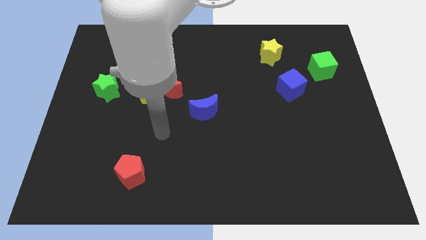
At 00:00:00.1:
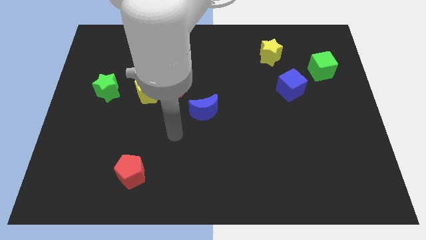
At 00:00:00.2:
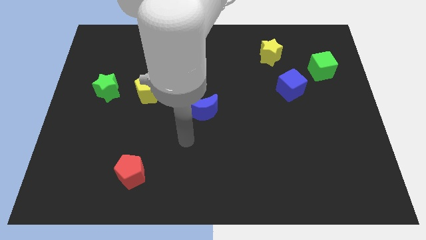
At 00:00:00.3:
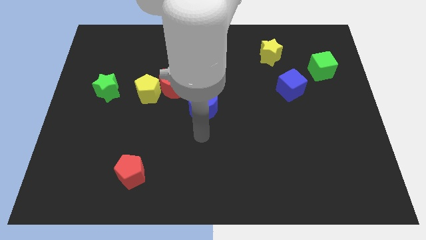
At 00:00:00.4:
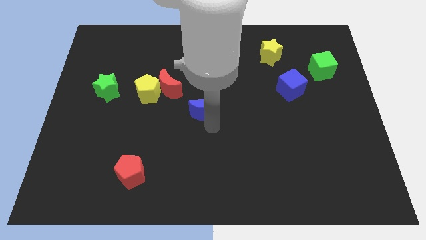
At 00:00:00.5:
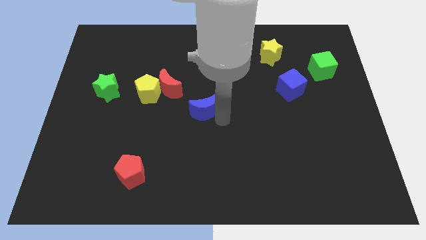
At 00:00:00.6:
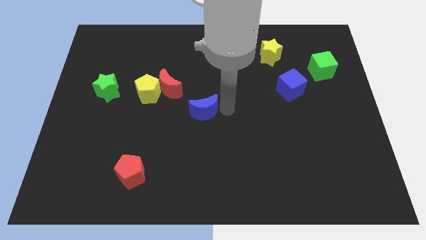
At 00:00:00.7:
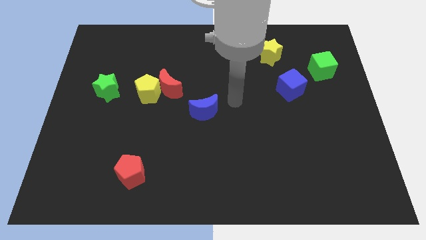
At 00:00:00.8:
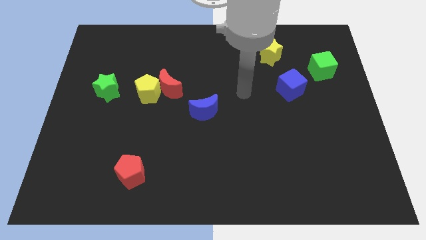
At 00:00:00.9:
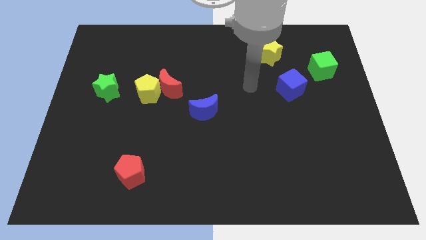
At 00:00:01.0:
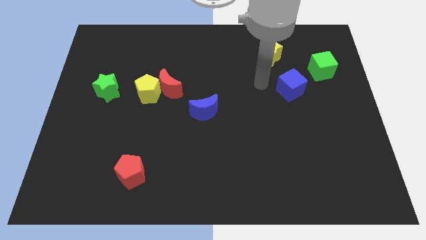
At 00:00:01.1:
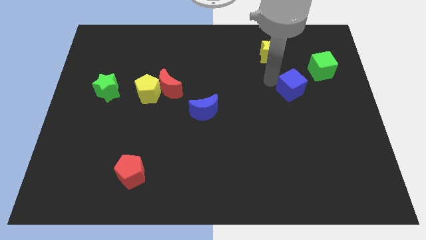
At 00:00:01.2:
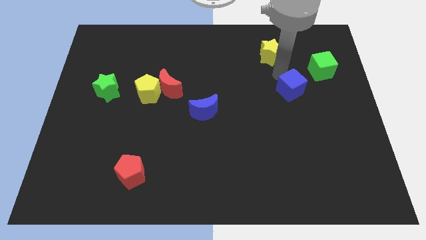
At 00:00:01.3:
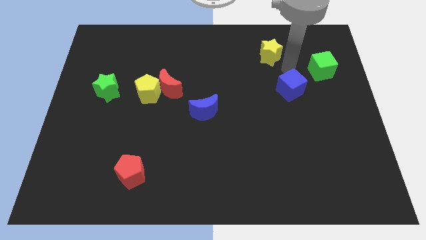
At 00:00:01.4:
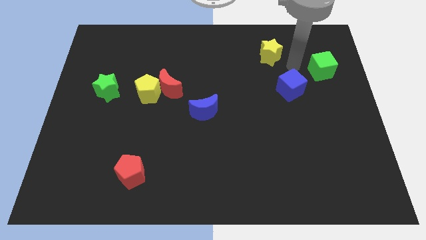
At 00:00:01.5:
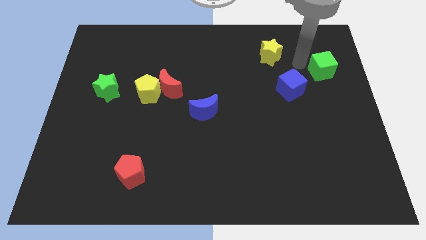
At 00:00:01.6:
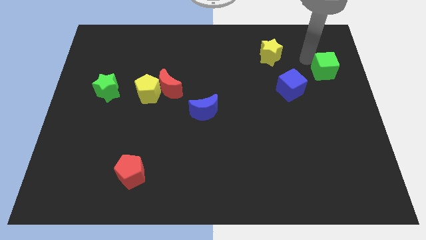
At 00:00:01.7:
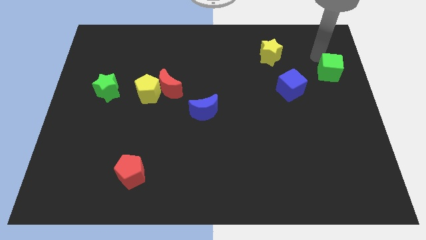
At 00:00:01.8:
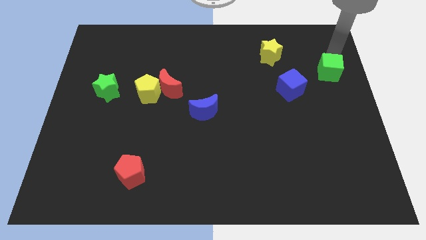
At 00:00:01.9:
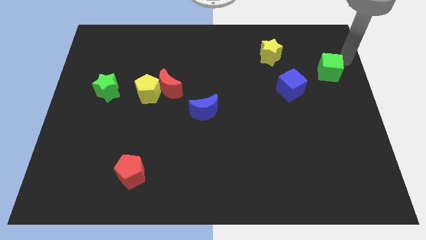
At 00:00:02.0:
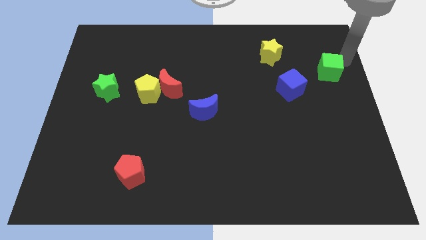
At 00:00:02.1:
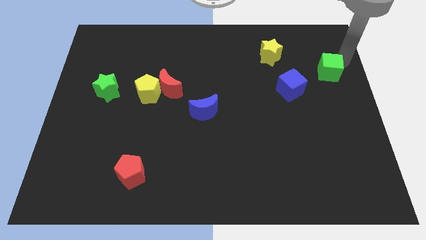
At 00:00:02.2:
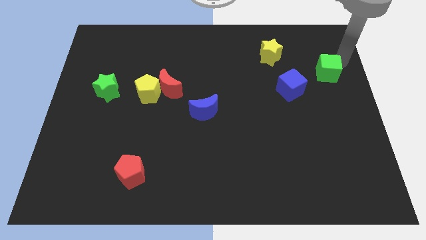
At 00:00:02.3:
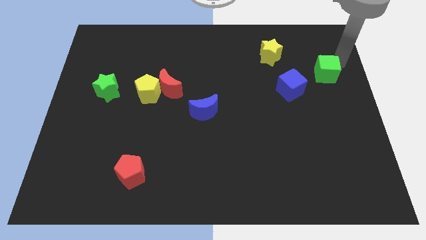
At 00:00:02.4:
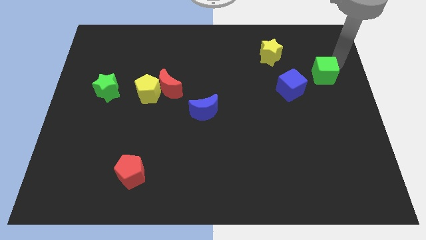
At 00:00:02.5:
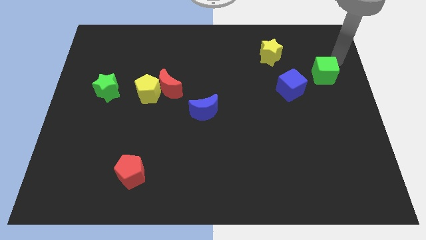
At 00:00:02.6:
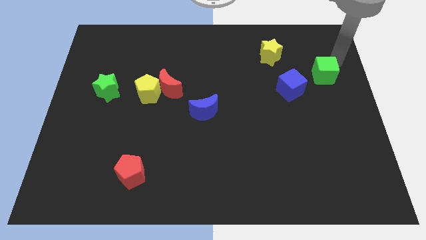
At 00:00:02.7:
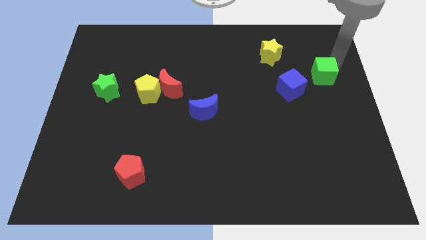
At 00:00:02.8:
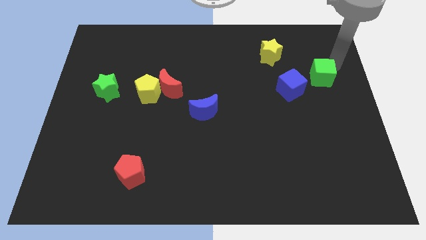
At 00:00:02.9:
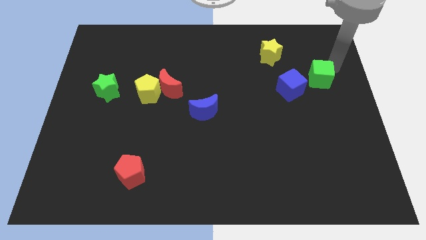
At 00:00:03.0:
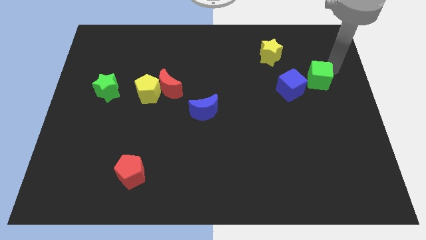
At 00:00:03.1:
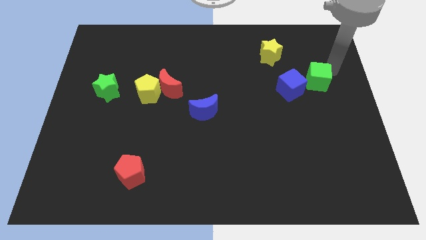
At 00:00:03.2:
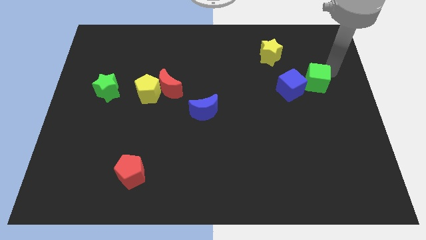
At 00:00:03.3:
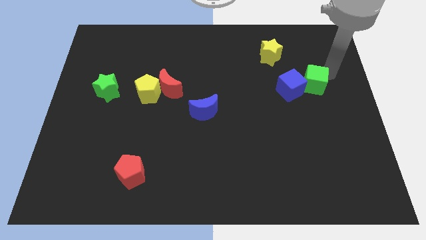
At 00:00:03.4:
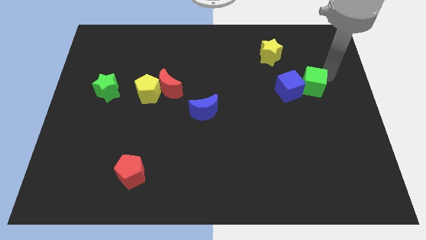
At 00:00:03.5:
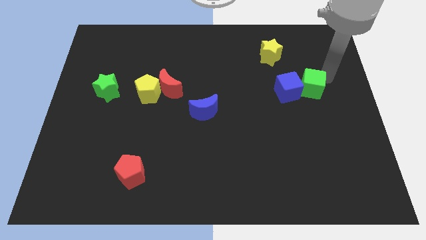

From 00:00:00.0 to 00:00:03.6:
slide the green cube a little bit down and then left

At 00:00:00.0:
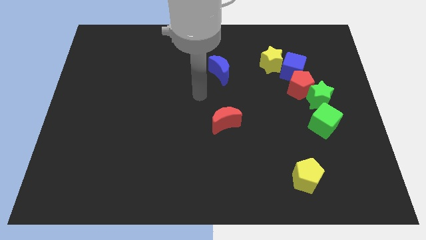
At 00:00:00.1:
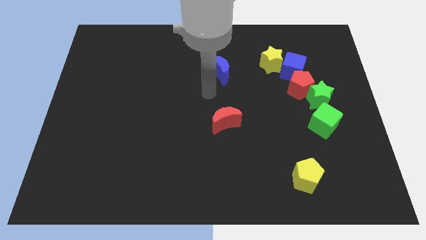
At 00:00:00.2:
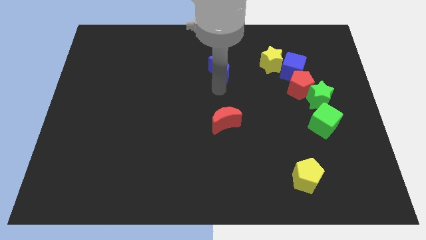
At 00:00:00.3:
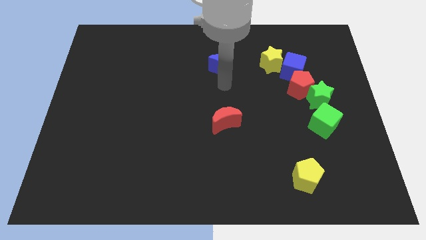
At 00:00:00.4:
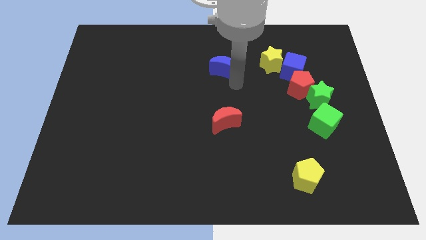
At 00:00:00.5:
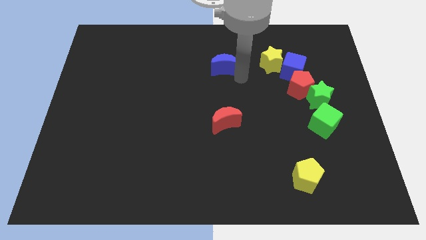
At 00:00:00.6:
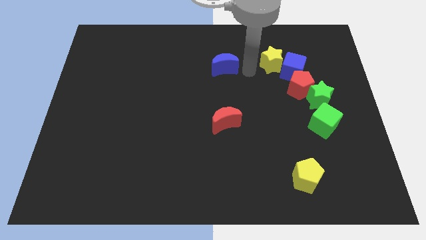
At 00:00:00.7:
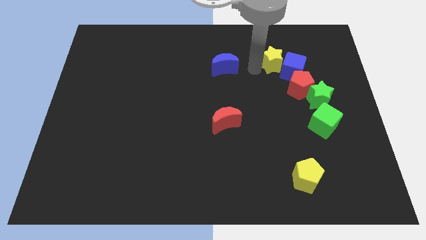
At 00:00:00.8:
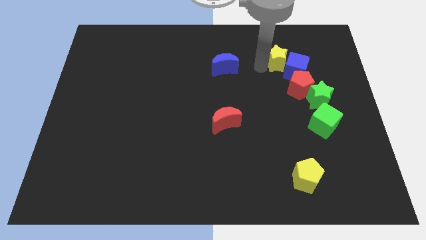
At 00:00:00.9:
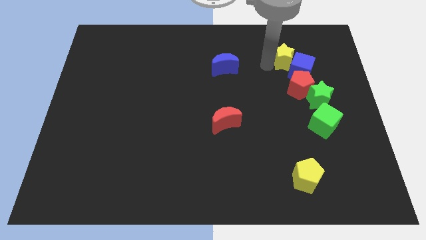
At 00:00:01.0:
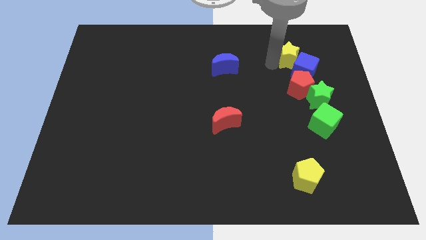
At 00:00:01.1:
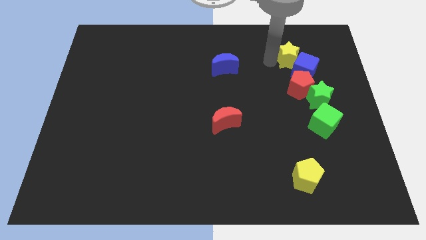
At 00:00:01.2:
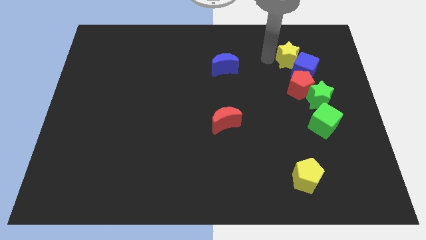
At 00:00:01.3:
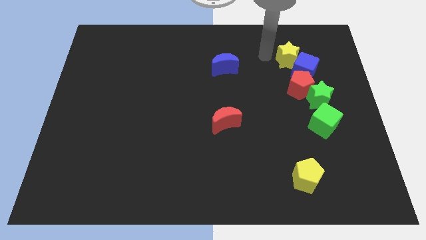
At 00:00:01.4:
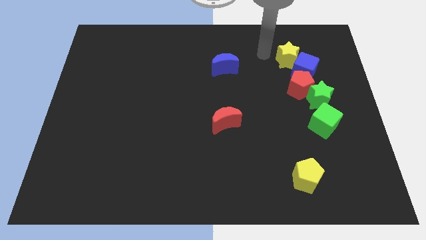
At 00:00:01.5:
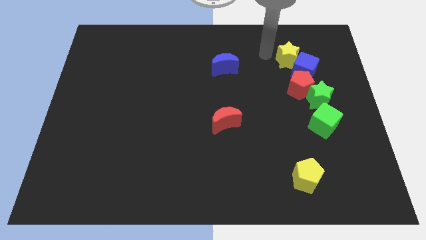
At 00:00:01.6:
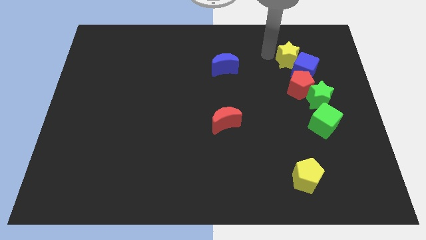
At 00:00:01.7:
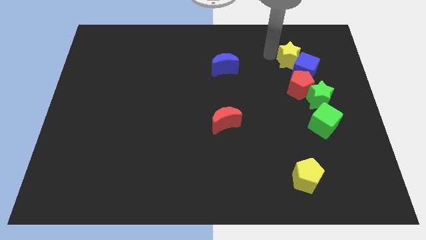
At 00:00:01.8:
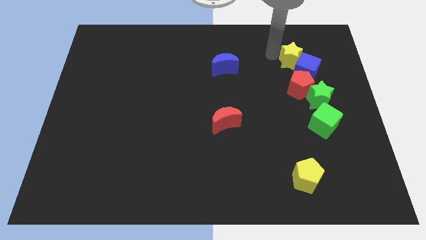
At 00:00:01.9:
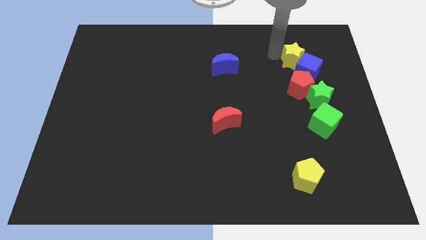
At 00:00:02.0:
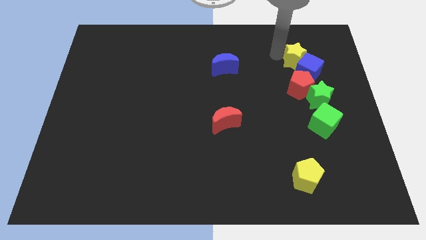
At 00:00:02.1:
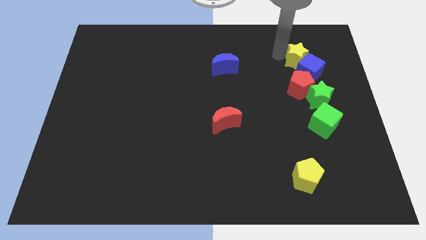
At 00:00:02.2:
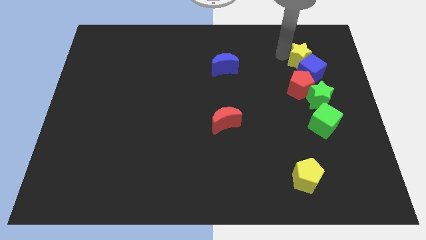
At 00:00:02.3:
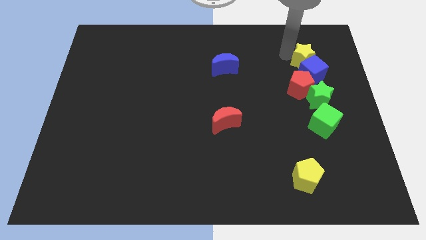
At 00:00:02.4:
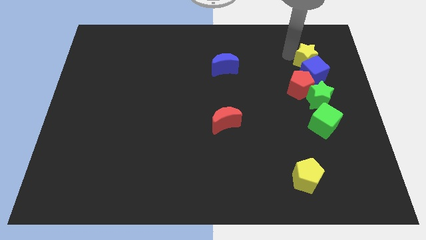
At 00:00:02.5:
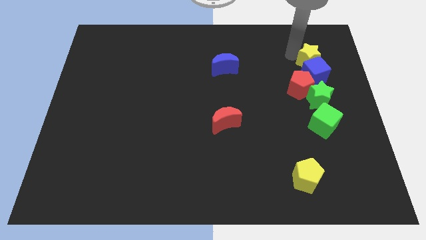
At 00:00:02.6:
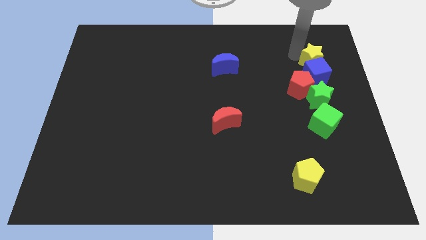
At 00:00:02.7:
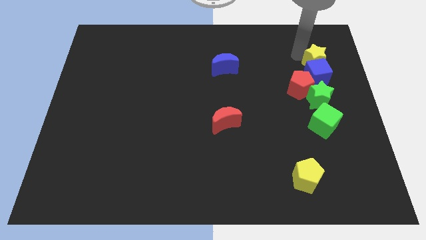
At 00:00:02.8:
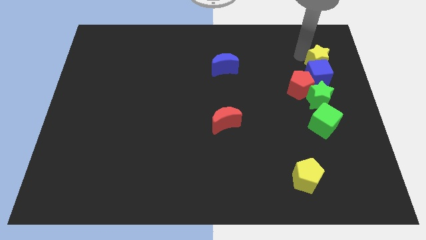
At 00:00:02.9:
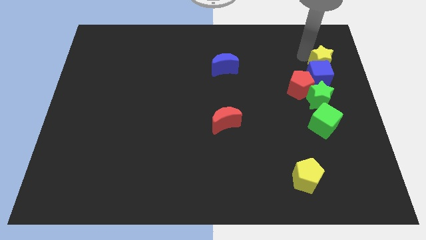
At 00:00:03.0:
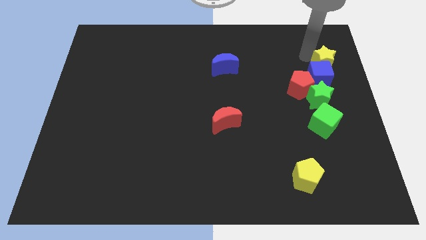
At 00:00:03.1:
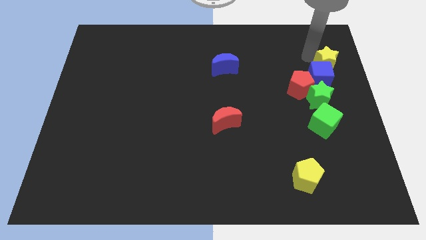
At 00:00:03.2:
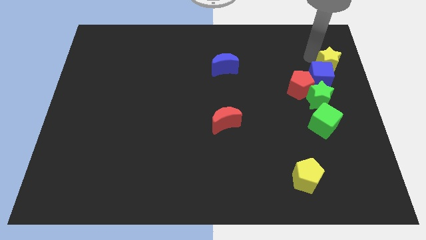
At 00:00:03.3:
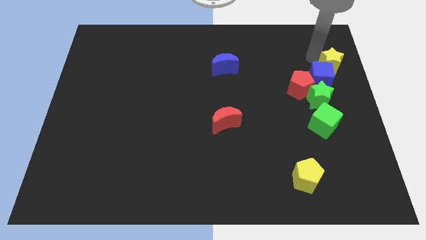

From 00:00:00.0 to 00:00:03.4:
slightly push the yellow star downwards and right

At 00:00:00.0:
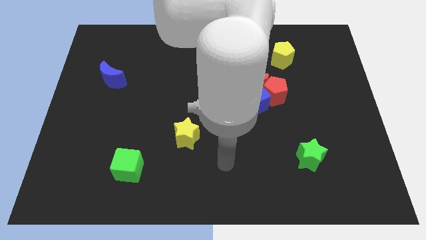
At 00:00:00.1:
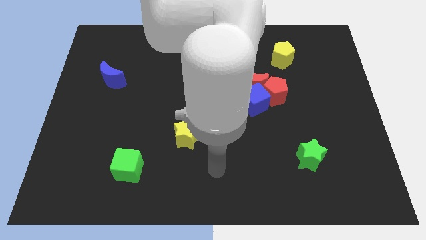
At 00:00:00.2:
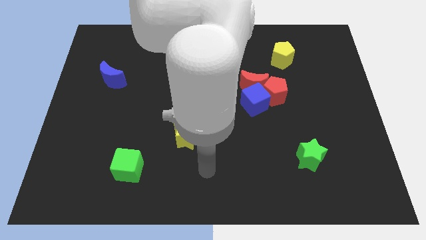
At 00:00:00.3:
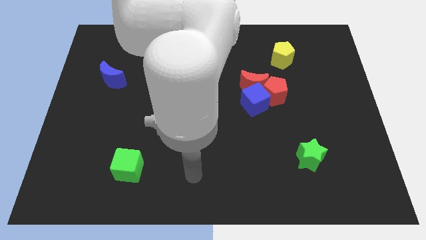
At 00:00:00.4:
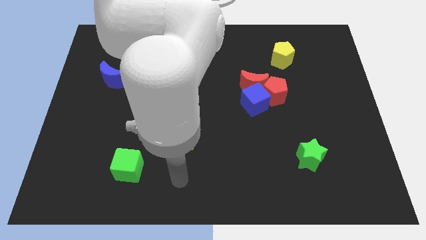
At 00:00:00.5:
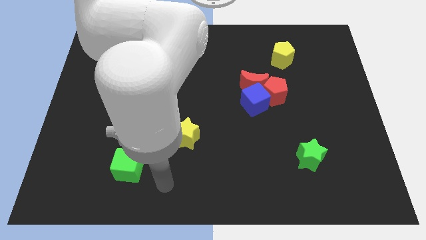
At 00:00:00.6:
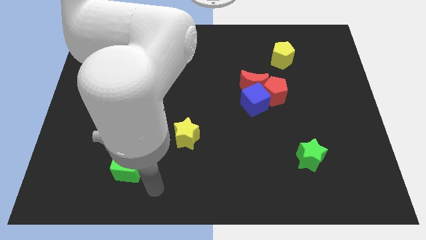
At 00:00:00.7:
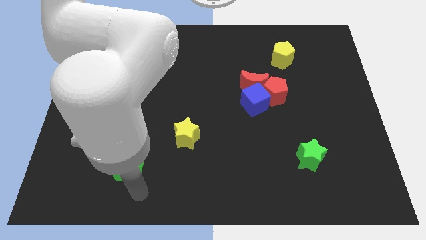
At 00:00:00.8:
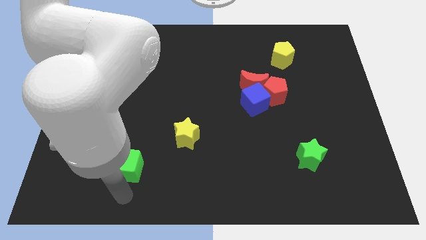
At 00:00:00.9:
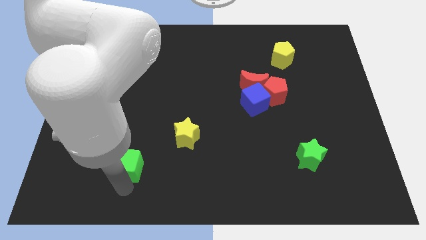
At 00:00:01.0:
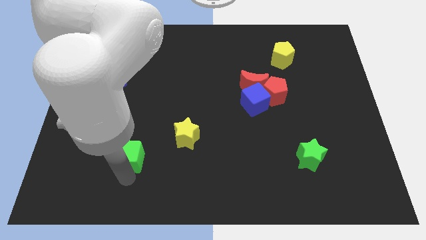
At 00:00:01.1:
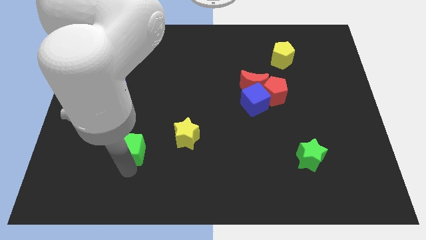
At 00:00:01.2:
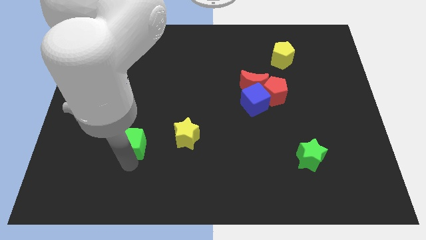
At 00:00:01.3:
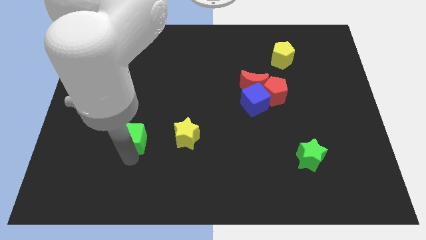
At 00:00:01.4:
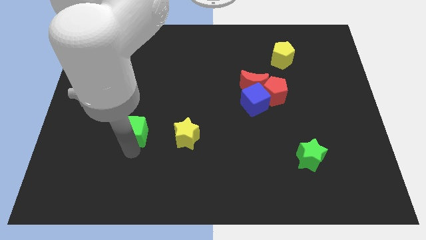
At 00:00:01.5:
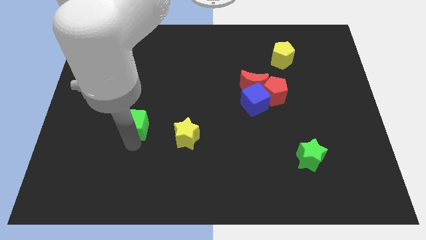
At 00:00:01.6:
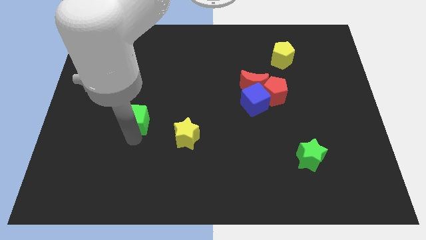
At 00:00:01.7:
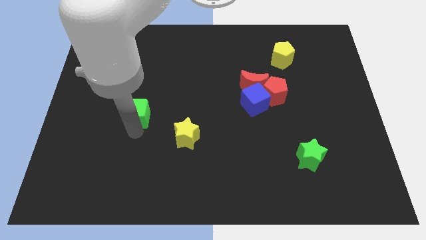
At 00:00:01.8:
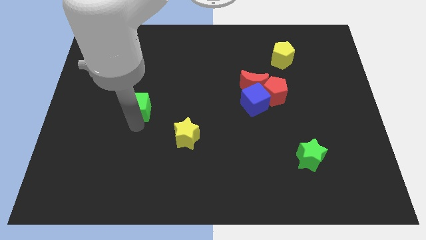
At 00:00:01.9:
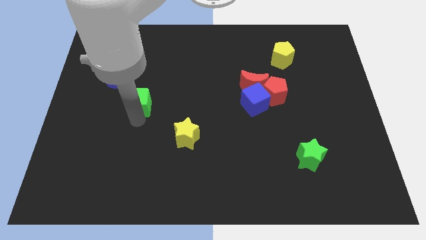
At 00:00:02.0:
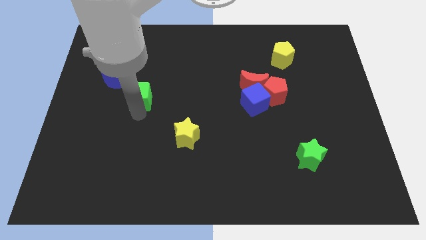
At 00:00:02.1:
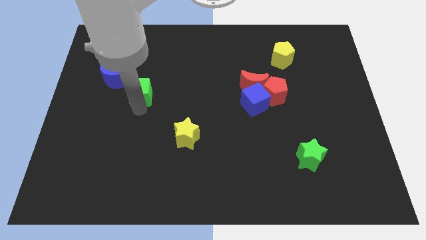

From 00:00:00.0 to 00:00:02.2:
slide the green cube up
